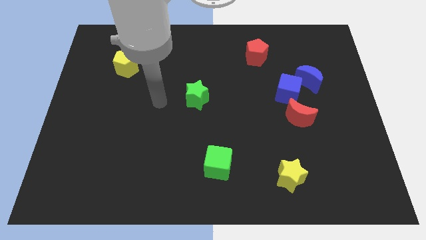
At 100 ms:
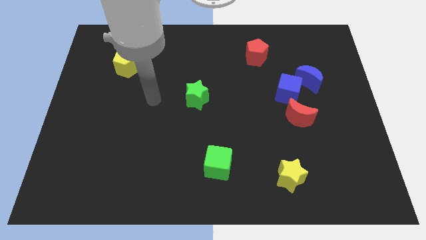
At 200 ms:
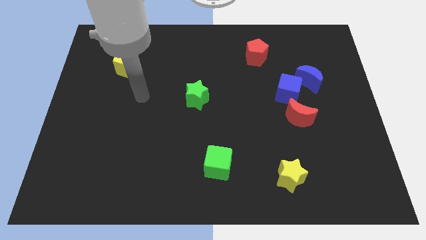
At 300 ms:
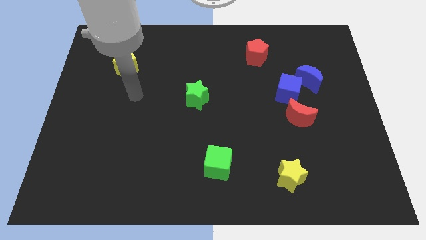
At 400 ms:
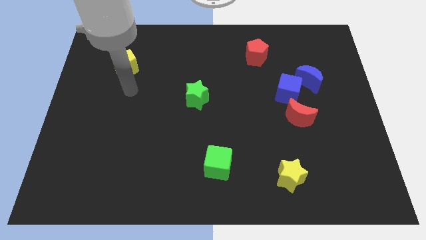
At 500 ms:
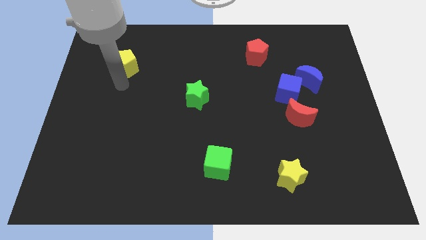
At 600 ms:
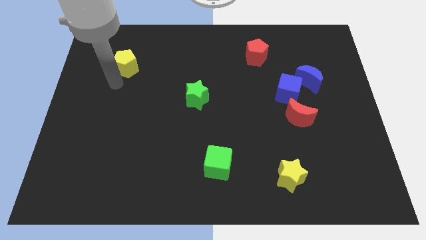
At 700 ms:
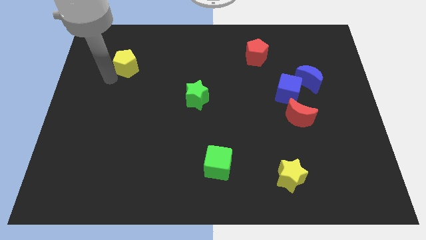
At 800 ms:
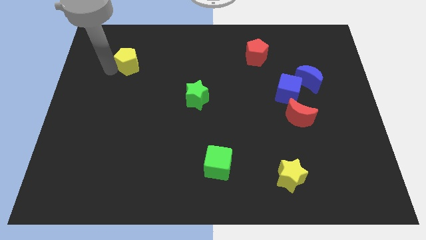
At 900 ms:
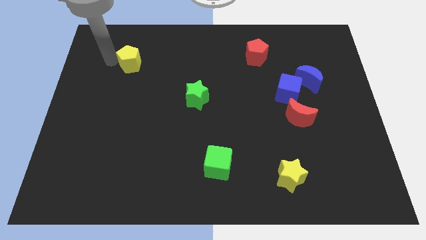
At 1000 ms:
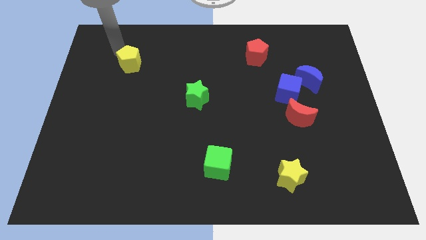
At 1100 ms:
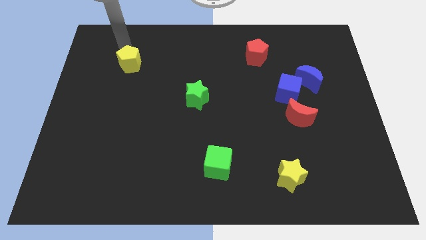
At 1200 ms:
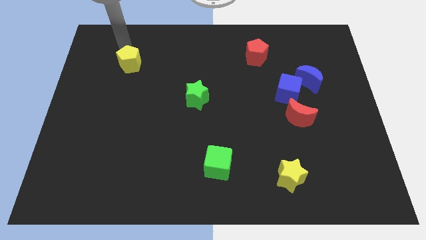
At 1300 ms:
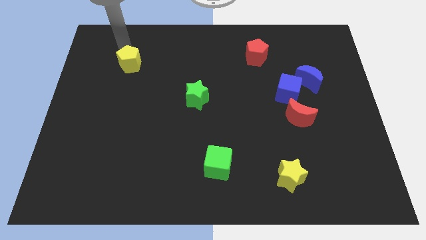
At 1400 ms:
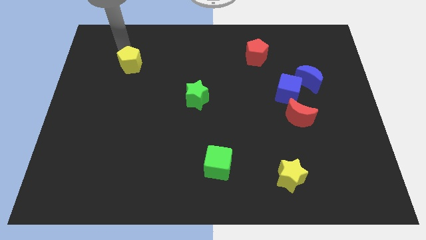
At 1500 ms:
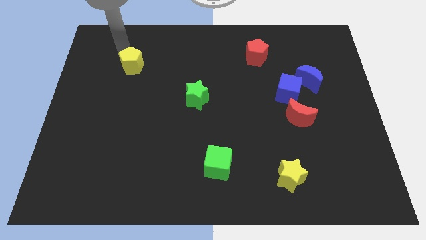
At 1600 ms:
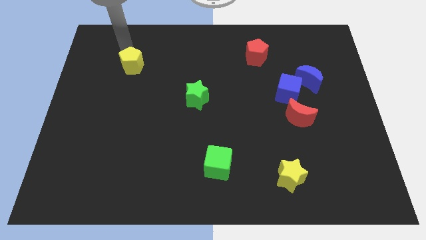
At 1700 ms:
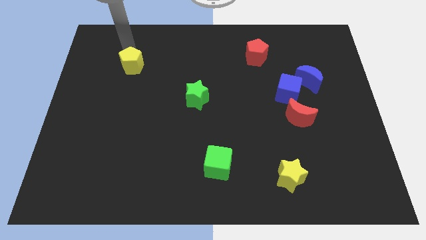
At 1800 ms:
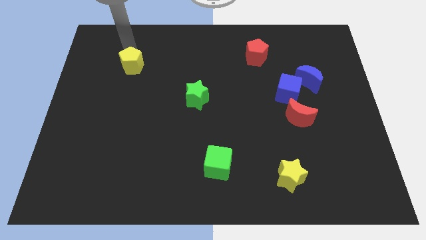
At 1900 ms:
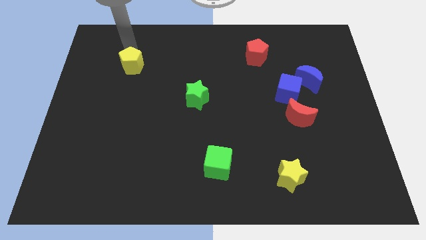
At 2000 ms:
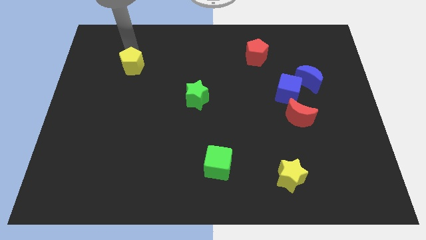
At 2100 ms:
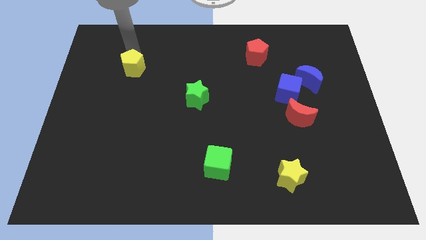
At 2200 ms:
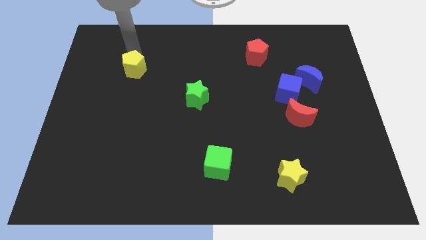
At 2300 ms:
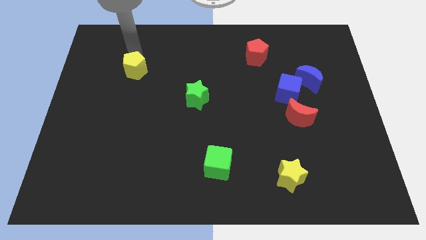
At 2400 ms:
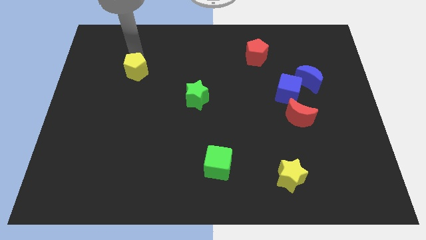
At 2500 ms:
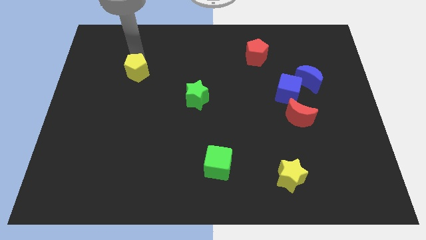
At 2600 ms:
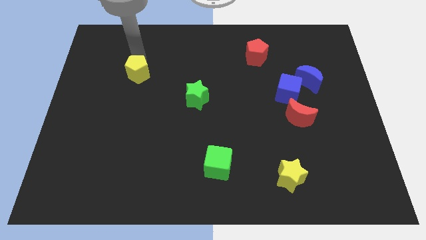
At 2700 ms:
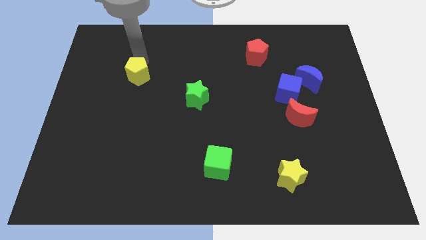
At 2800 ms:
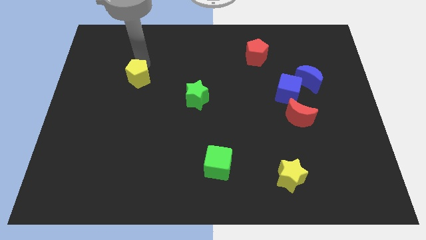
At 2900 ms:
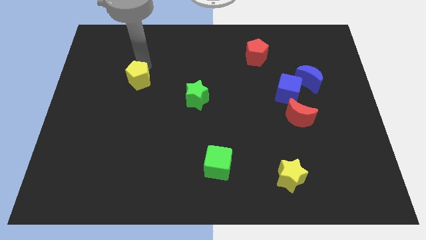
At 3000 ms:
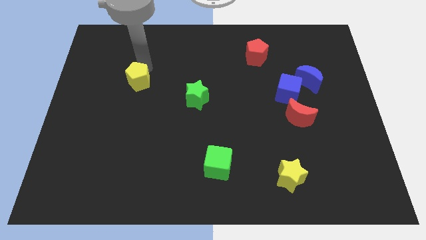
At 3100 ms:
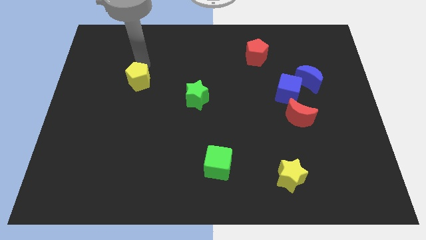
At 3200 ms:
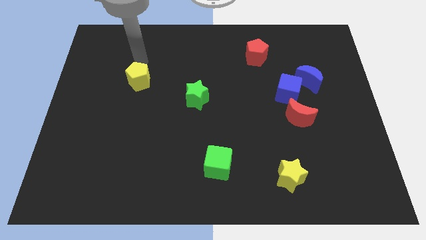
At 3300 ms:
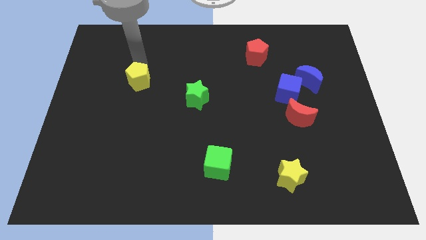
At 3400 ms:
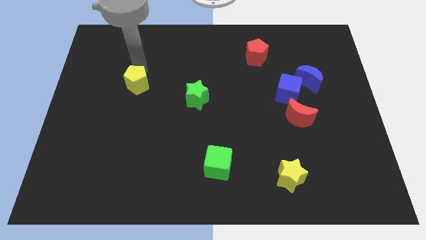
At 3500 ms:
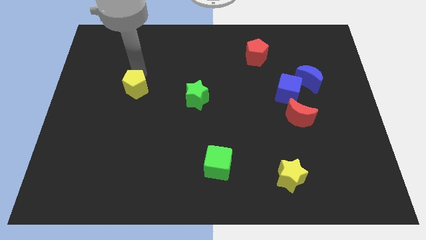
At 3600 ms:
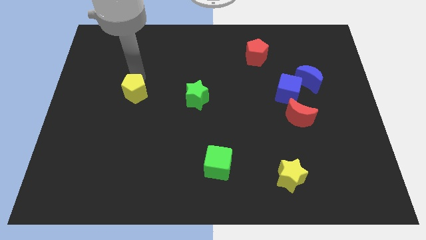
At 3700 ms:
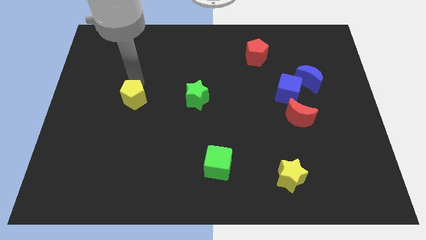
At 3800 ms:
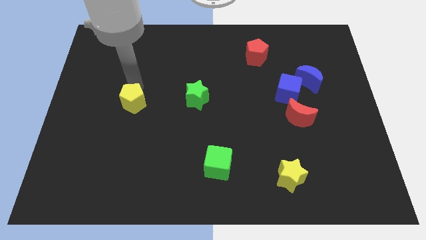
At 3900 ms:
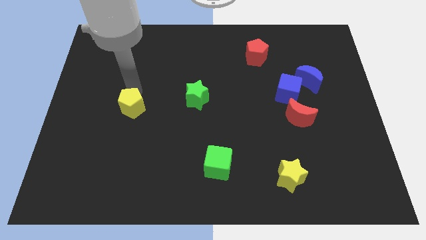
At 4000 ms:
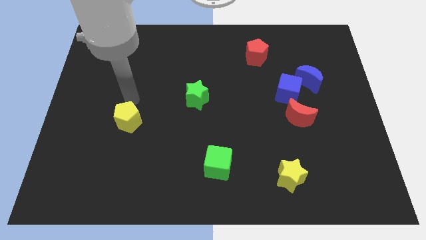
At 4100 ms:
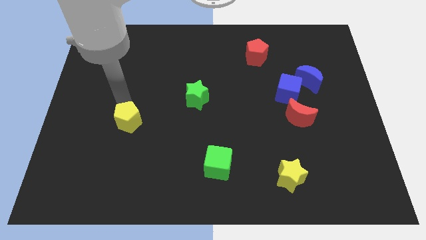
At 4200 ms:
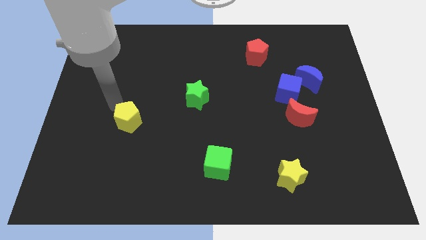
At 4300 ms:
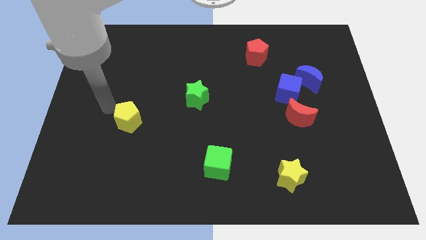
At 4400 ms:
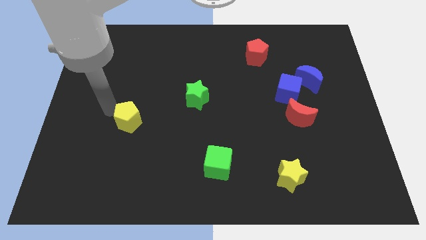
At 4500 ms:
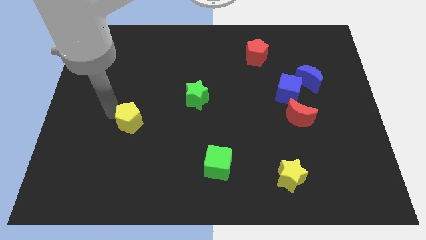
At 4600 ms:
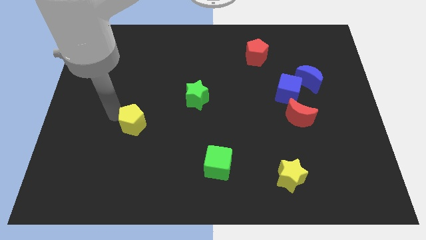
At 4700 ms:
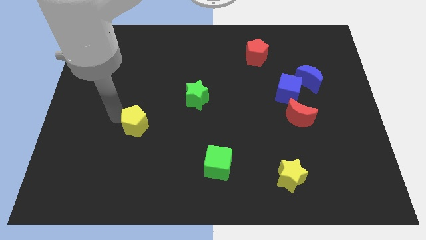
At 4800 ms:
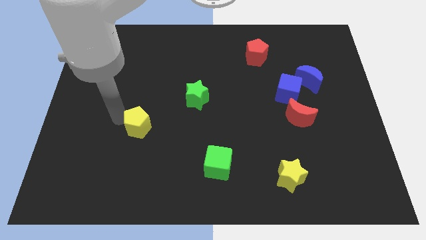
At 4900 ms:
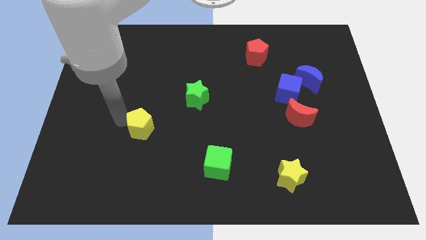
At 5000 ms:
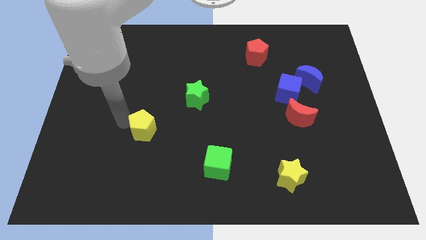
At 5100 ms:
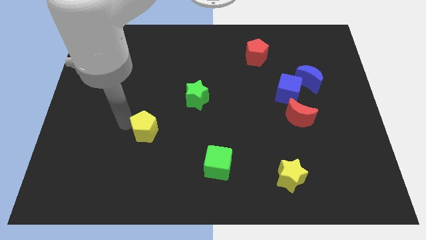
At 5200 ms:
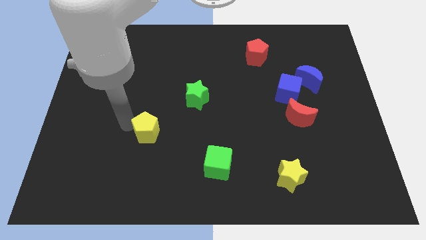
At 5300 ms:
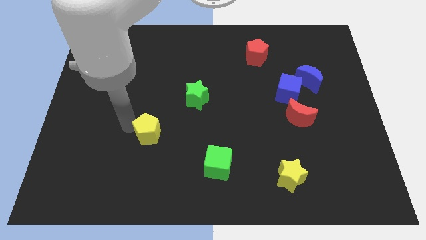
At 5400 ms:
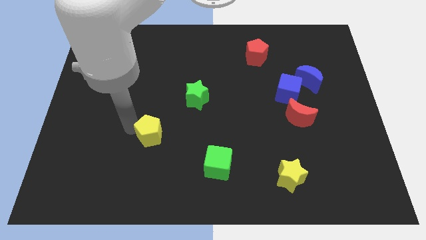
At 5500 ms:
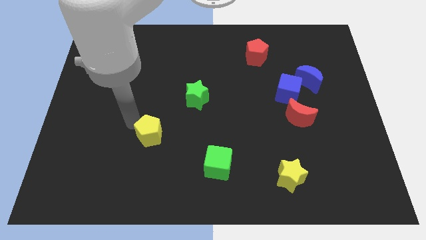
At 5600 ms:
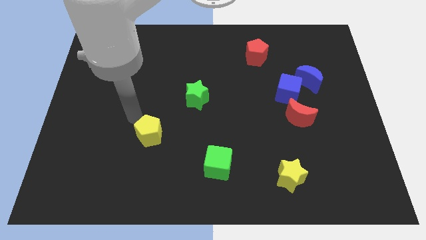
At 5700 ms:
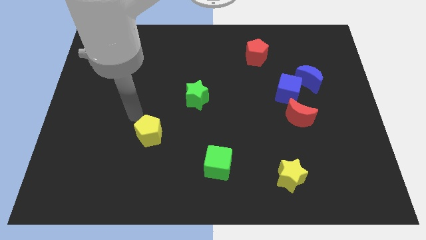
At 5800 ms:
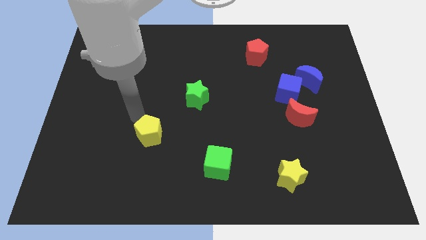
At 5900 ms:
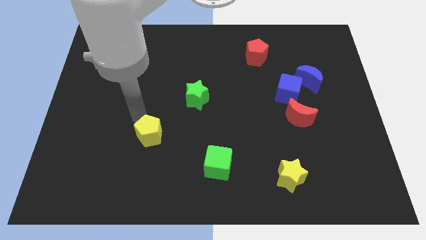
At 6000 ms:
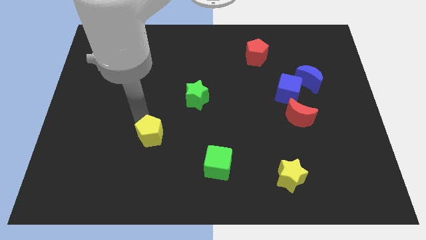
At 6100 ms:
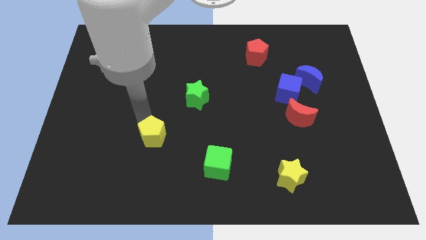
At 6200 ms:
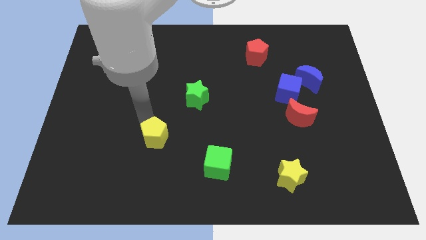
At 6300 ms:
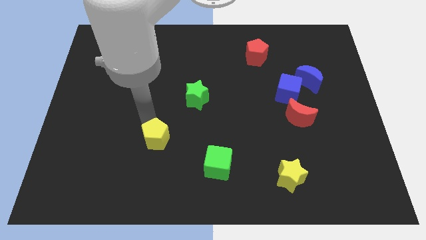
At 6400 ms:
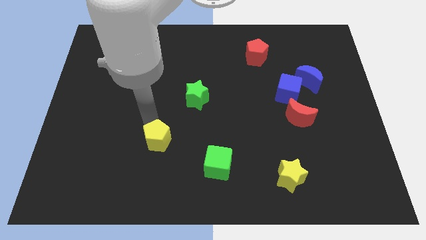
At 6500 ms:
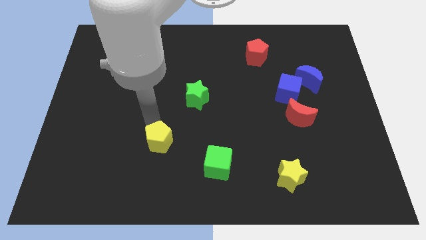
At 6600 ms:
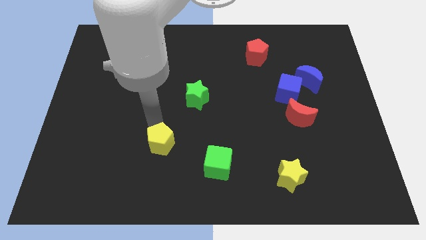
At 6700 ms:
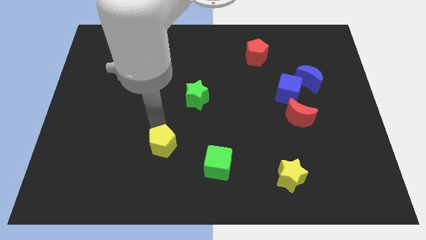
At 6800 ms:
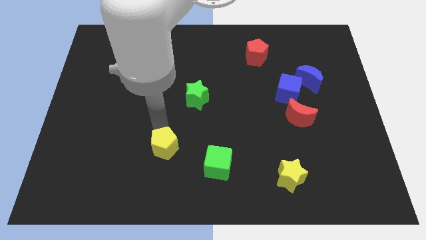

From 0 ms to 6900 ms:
put the yellow pentagon to the left of the green cube
